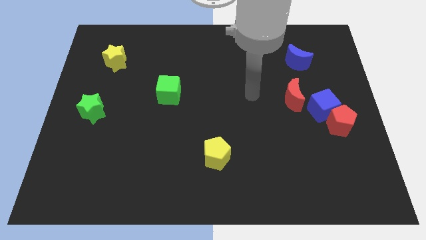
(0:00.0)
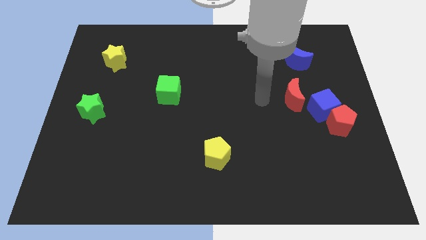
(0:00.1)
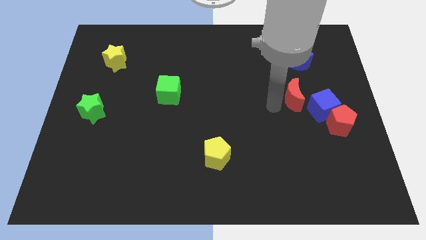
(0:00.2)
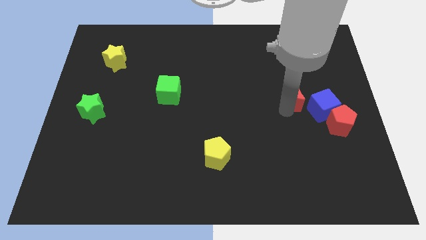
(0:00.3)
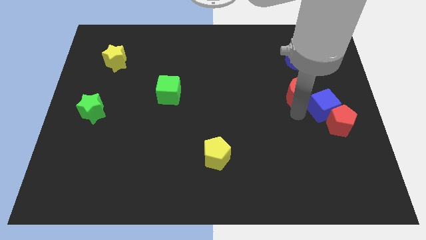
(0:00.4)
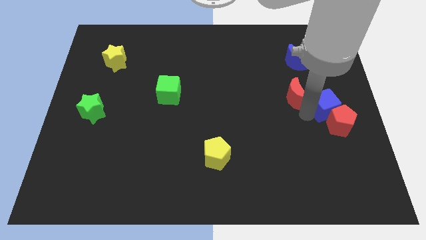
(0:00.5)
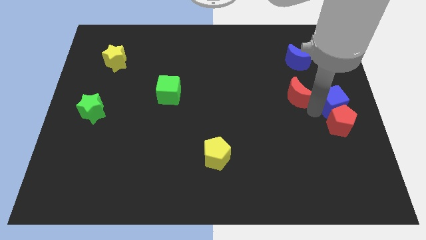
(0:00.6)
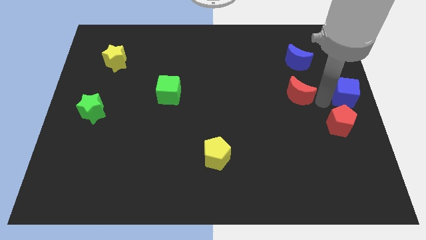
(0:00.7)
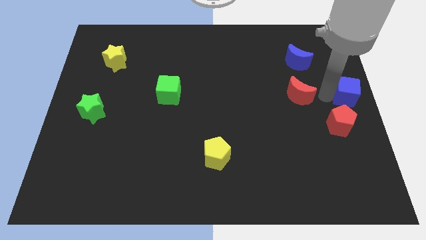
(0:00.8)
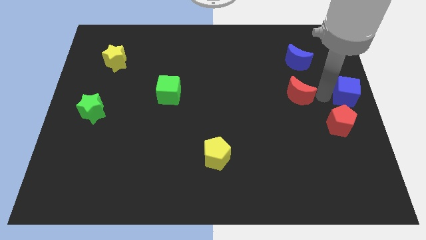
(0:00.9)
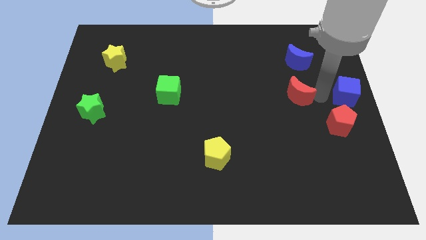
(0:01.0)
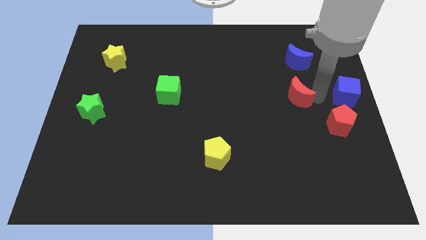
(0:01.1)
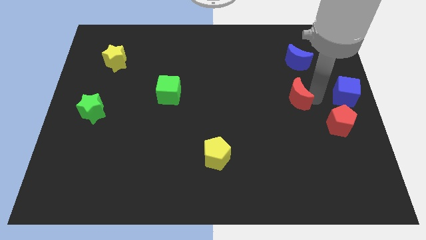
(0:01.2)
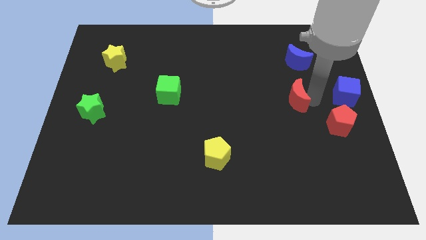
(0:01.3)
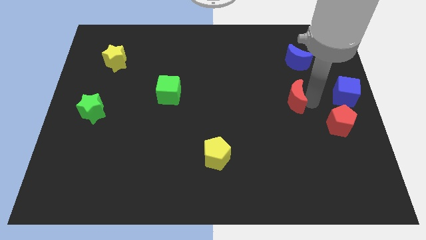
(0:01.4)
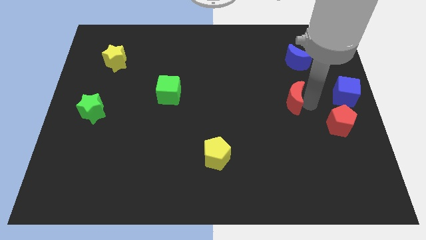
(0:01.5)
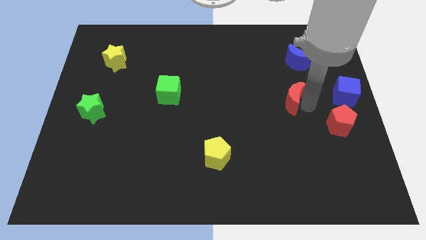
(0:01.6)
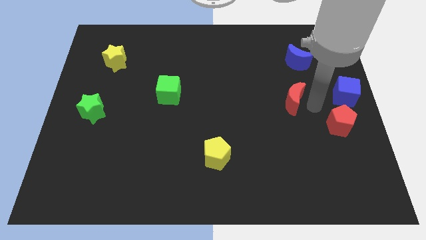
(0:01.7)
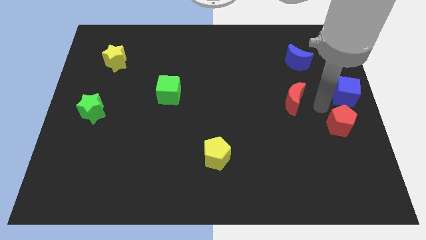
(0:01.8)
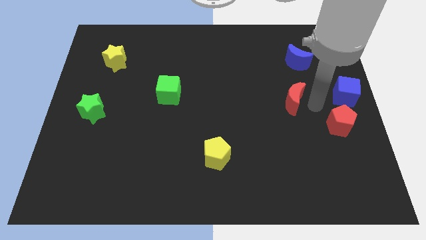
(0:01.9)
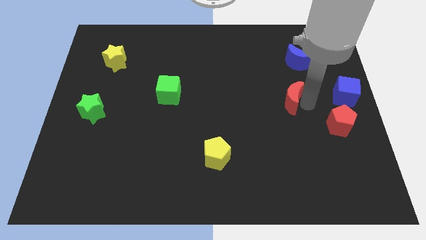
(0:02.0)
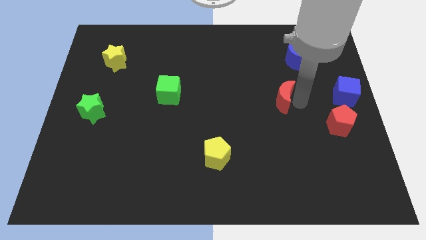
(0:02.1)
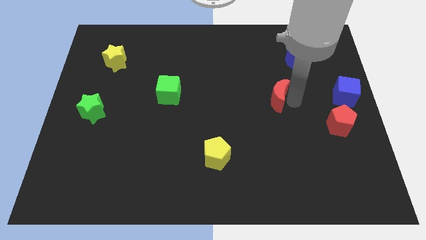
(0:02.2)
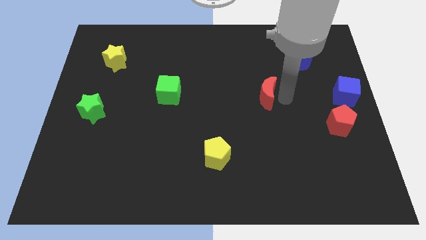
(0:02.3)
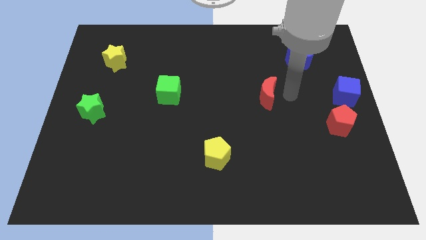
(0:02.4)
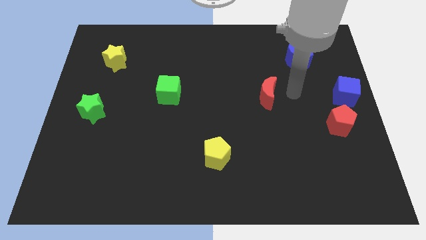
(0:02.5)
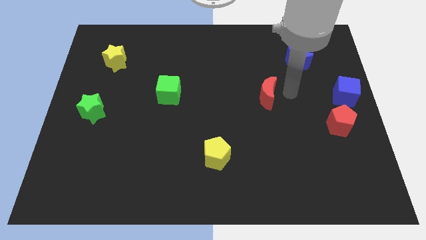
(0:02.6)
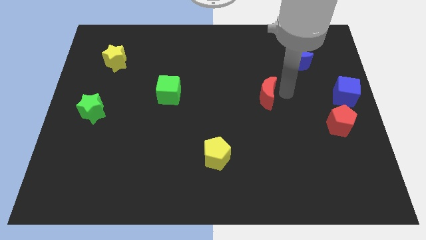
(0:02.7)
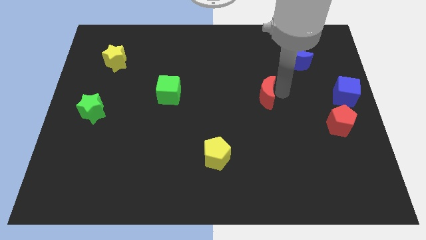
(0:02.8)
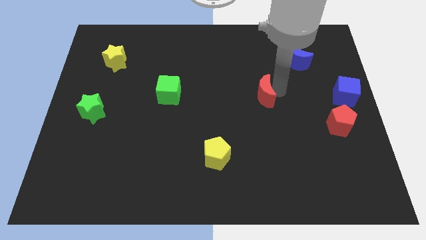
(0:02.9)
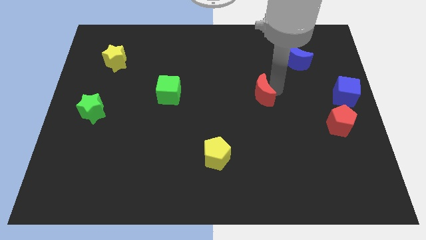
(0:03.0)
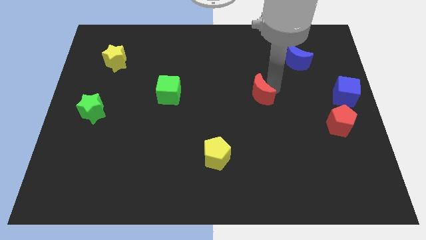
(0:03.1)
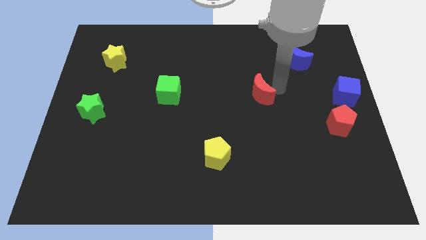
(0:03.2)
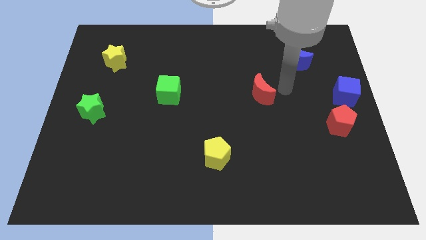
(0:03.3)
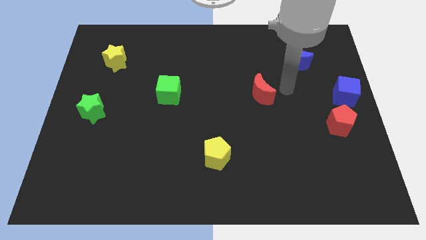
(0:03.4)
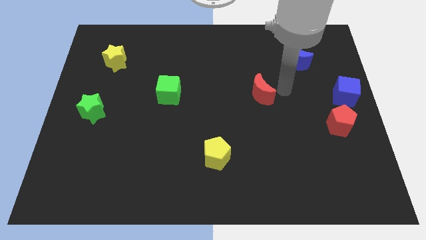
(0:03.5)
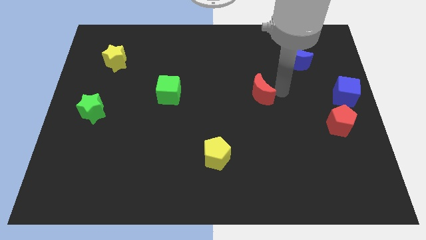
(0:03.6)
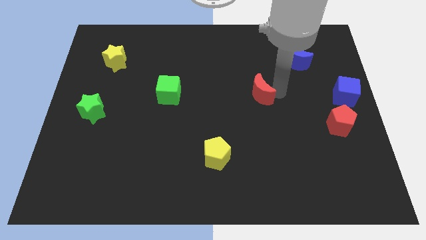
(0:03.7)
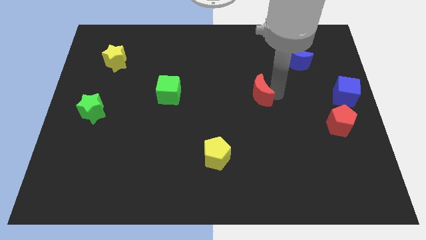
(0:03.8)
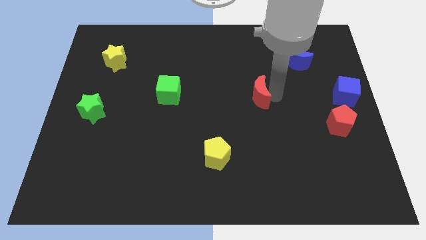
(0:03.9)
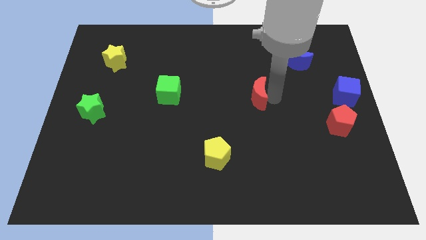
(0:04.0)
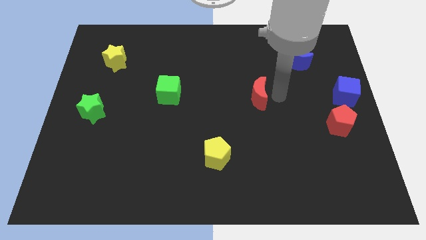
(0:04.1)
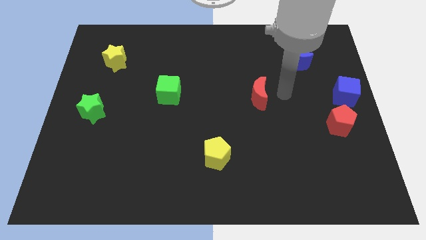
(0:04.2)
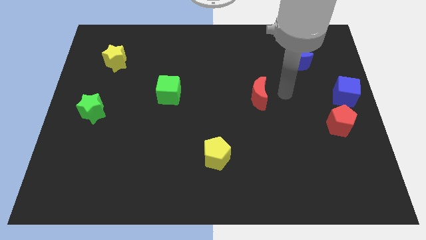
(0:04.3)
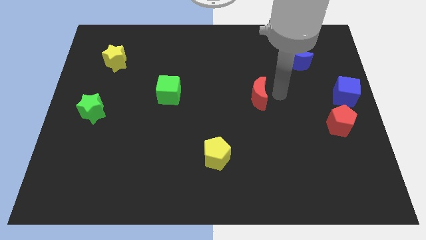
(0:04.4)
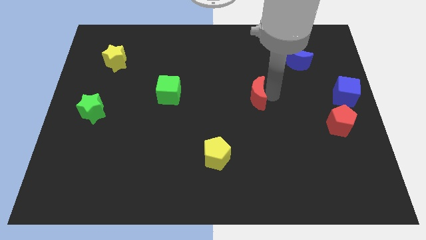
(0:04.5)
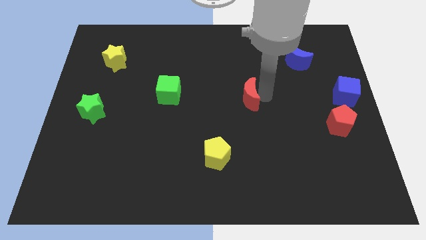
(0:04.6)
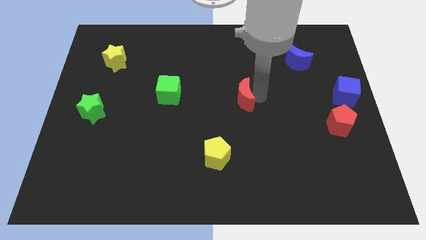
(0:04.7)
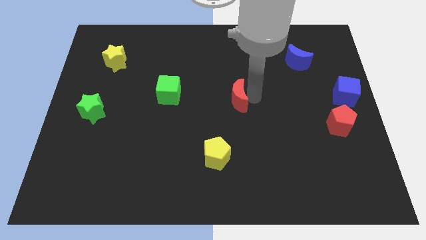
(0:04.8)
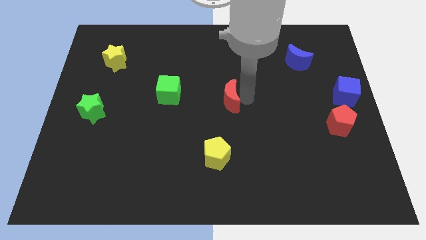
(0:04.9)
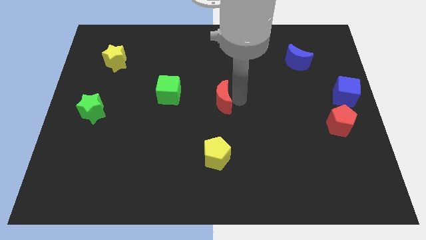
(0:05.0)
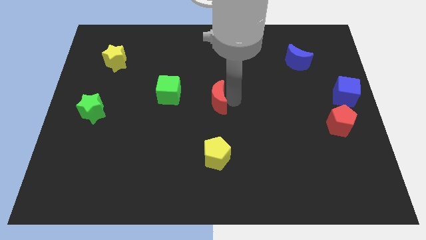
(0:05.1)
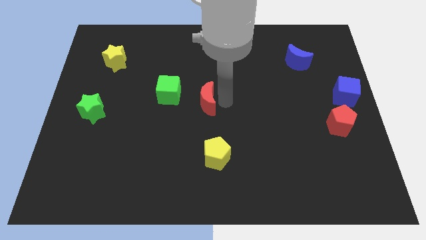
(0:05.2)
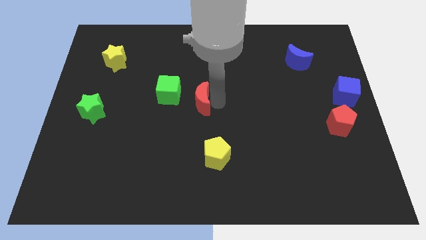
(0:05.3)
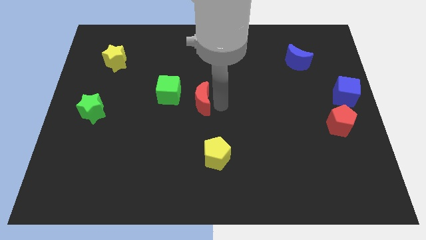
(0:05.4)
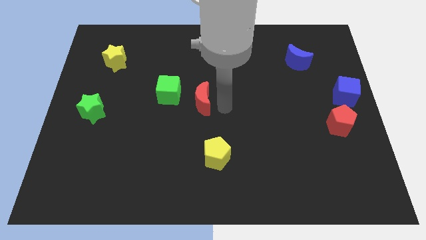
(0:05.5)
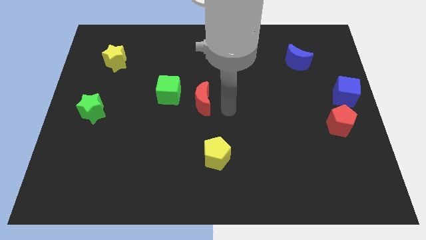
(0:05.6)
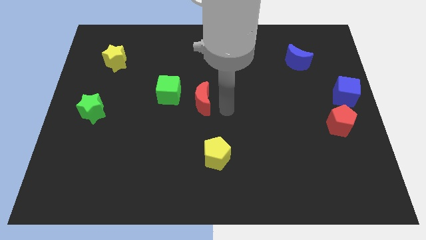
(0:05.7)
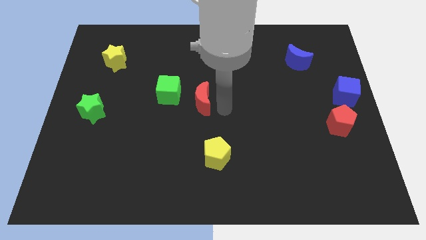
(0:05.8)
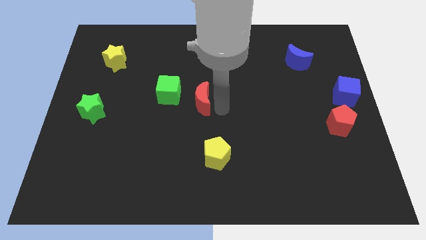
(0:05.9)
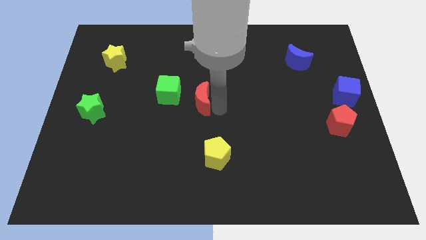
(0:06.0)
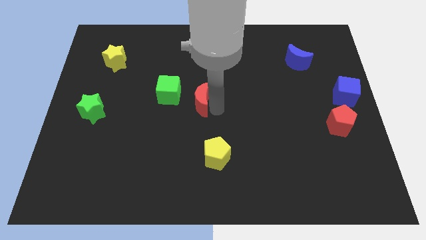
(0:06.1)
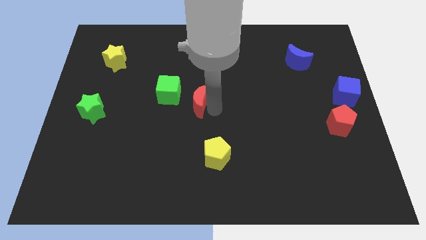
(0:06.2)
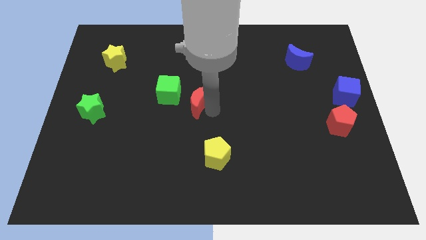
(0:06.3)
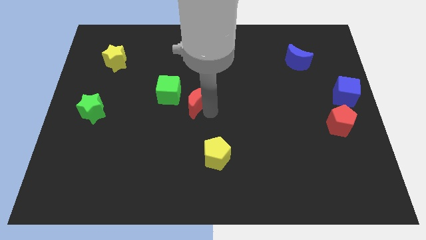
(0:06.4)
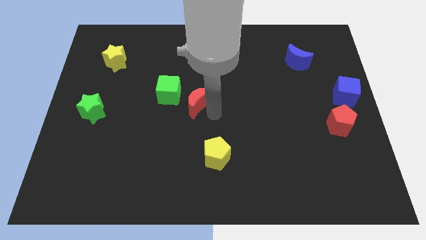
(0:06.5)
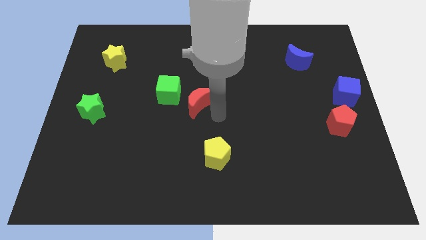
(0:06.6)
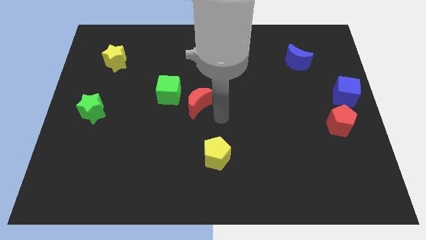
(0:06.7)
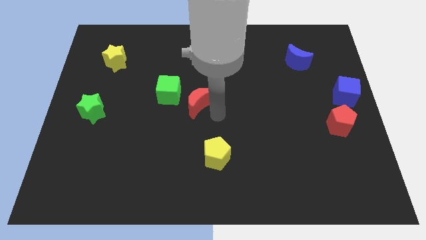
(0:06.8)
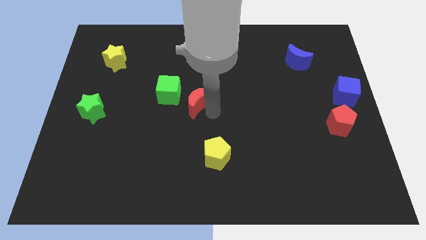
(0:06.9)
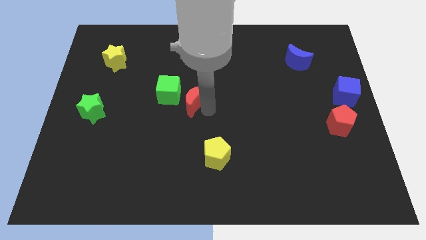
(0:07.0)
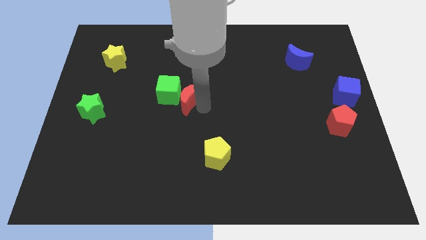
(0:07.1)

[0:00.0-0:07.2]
put the red moon close to the green cube
